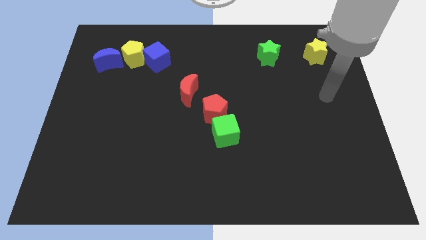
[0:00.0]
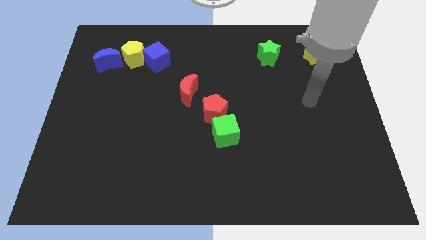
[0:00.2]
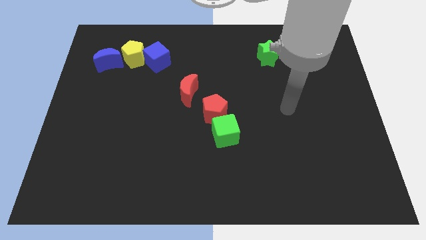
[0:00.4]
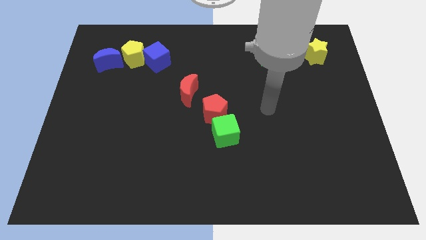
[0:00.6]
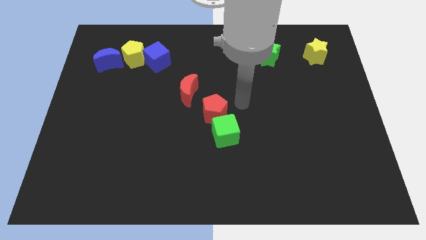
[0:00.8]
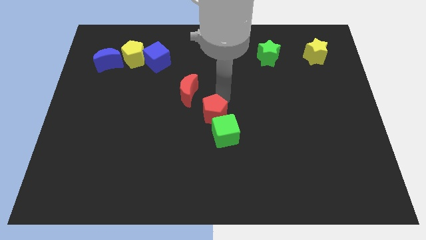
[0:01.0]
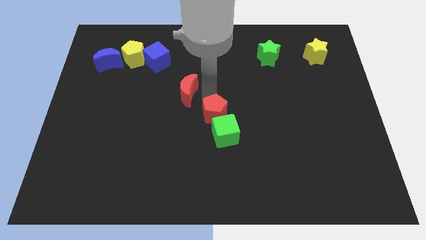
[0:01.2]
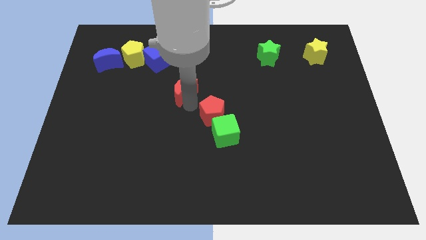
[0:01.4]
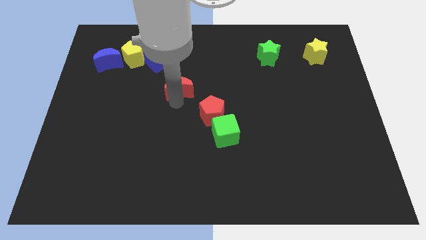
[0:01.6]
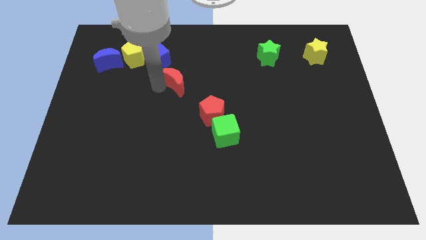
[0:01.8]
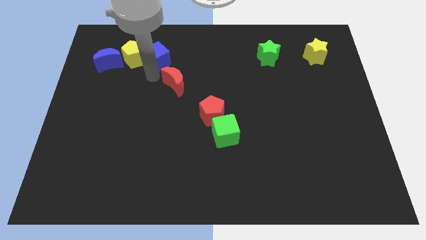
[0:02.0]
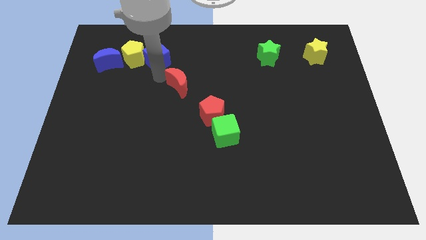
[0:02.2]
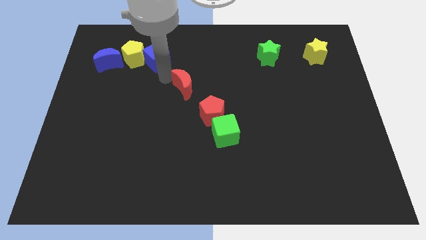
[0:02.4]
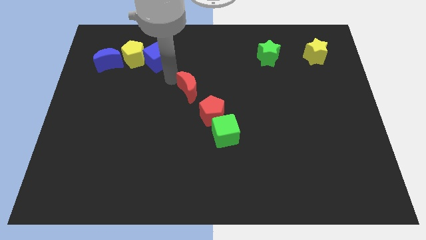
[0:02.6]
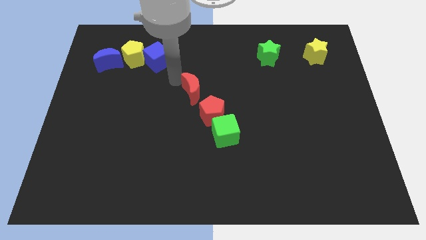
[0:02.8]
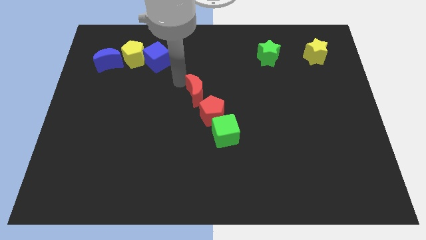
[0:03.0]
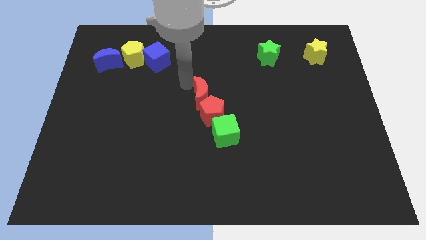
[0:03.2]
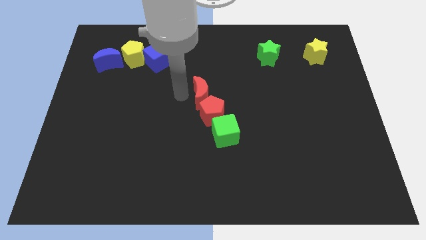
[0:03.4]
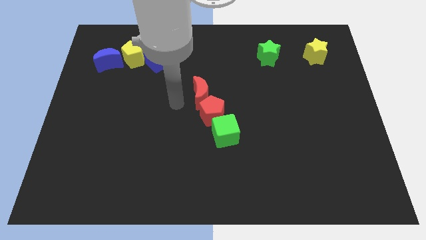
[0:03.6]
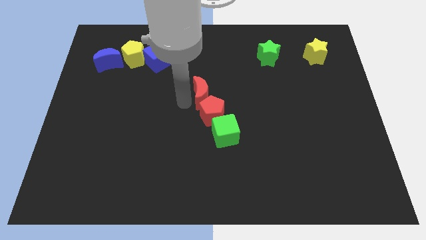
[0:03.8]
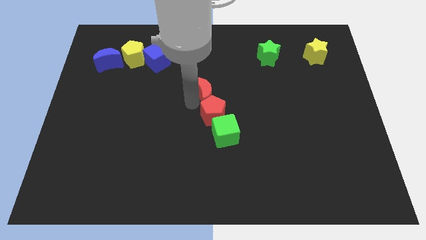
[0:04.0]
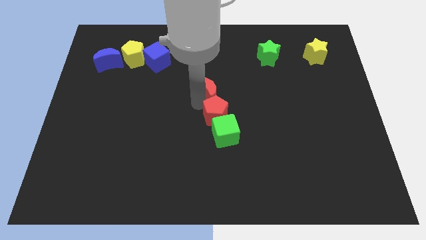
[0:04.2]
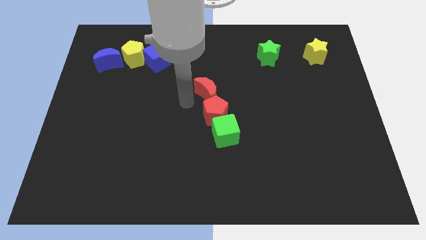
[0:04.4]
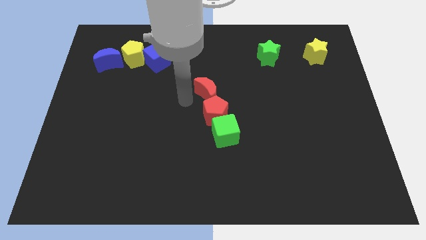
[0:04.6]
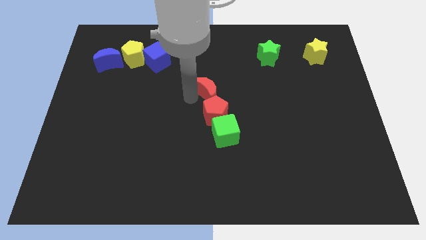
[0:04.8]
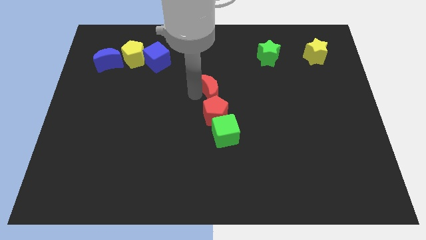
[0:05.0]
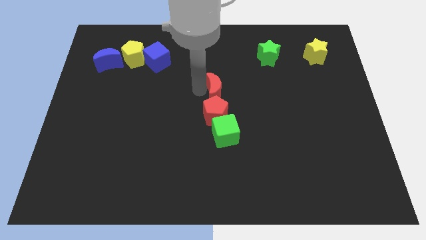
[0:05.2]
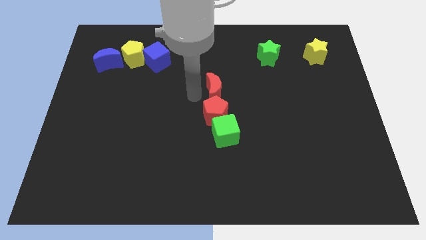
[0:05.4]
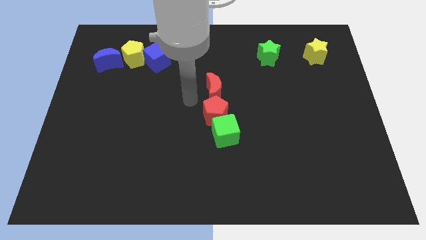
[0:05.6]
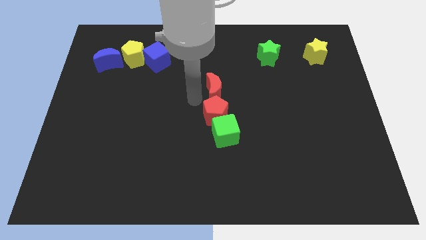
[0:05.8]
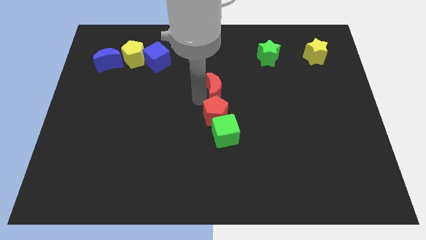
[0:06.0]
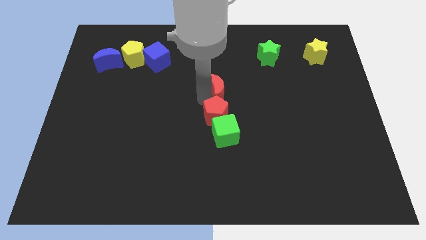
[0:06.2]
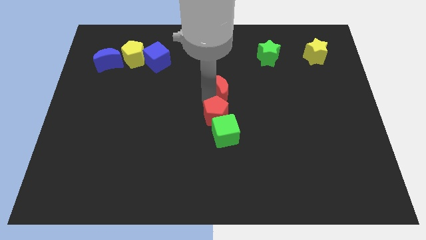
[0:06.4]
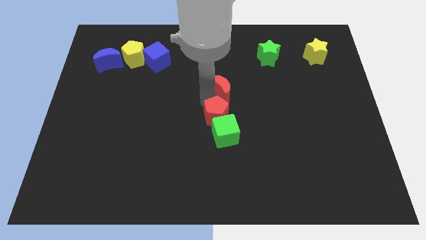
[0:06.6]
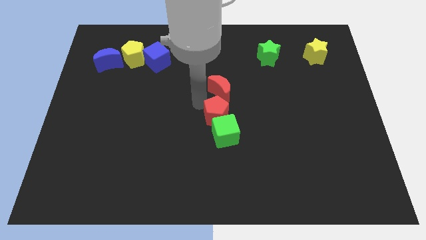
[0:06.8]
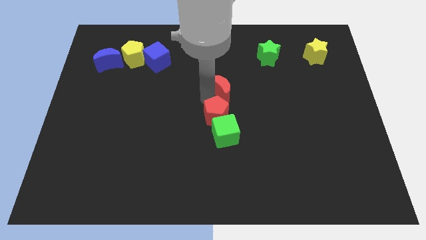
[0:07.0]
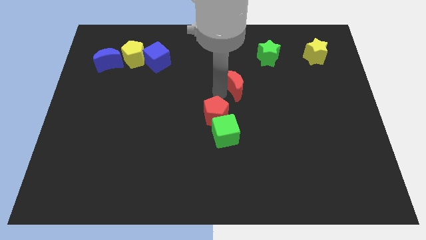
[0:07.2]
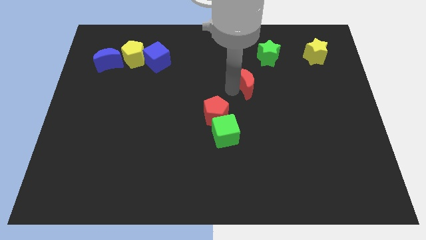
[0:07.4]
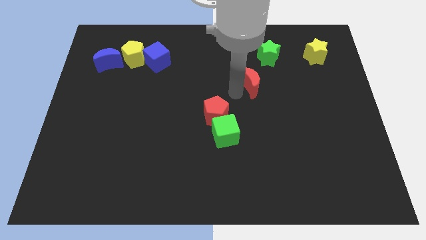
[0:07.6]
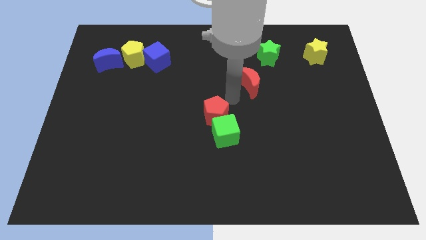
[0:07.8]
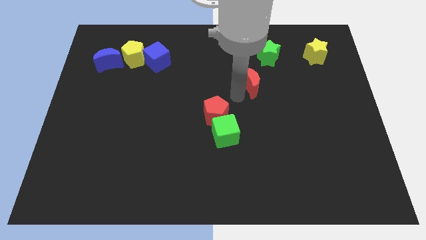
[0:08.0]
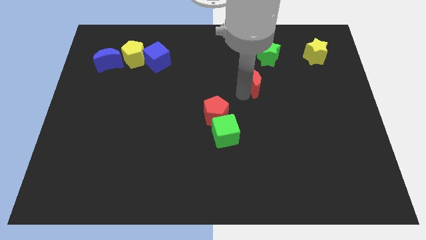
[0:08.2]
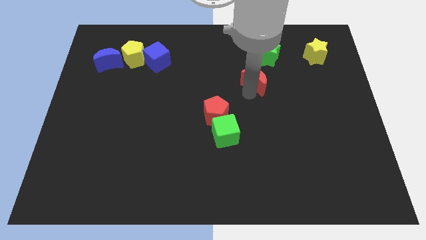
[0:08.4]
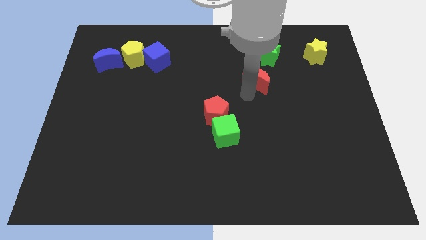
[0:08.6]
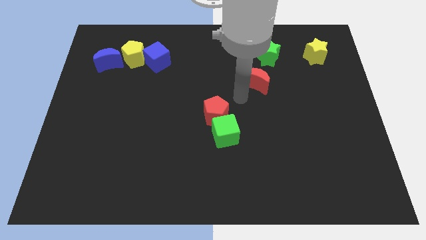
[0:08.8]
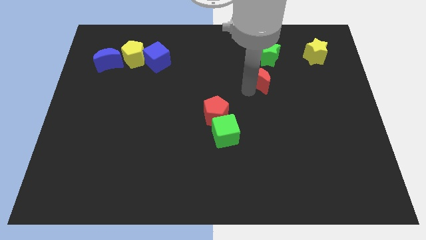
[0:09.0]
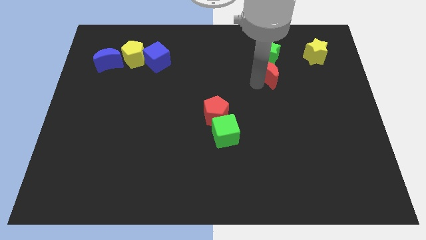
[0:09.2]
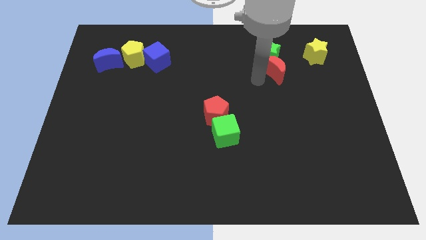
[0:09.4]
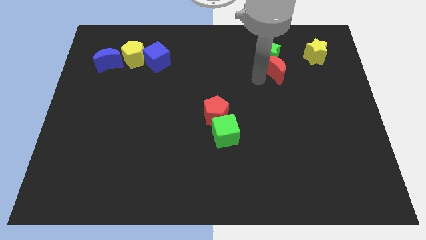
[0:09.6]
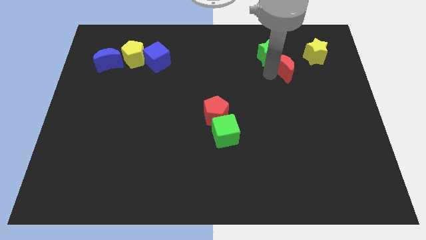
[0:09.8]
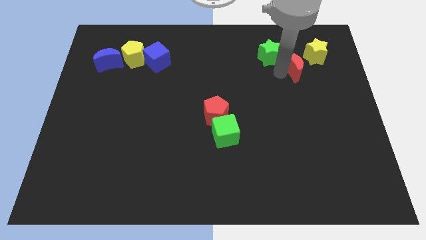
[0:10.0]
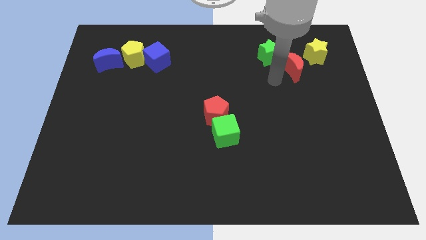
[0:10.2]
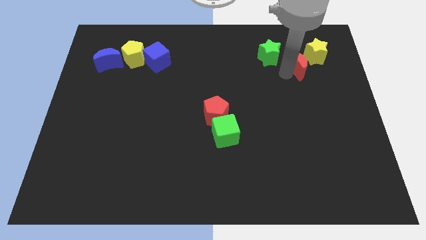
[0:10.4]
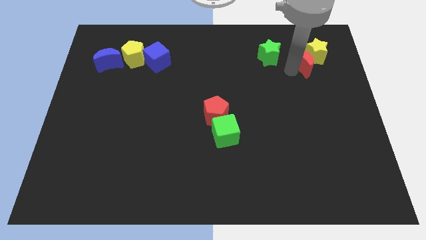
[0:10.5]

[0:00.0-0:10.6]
slide the red moon next to the yellow star

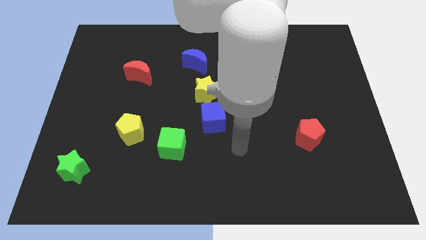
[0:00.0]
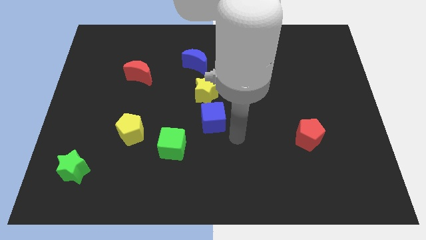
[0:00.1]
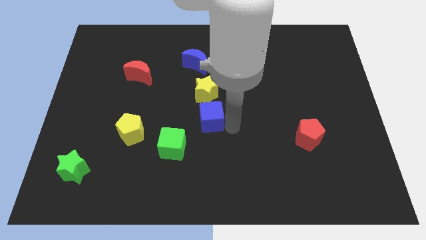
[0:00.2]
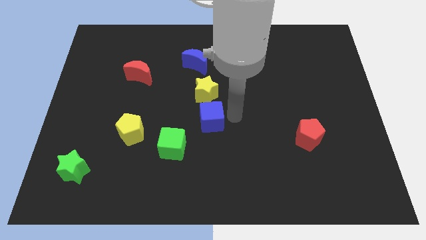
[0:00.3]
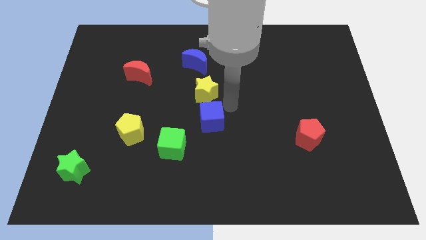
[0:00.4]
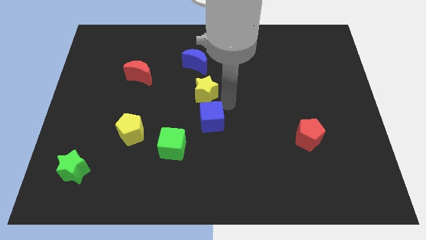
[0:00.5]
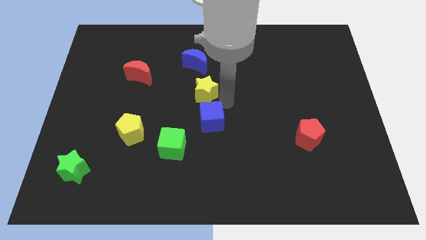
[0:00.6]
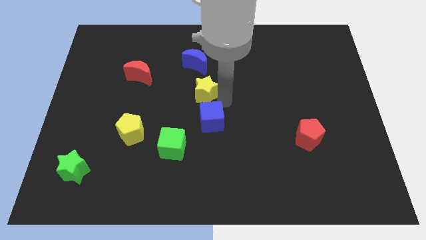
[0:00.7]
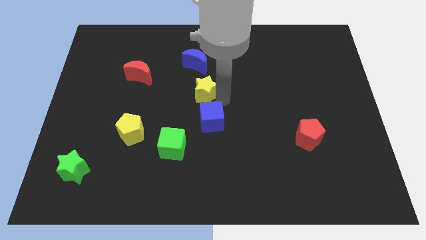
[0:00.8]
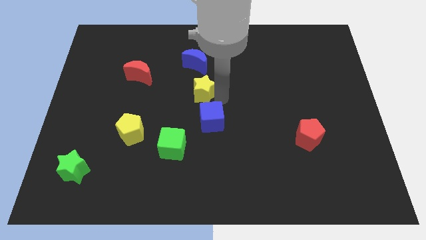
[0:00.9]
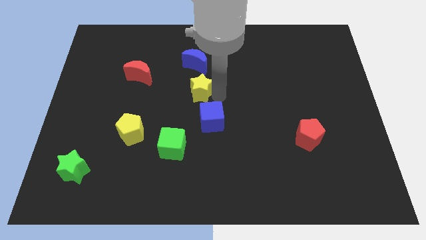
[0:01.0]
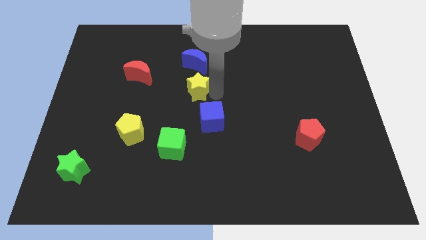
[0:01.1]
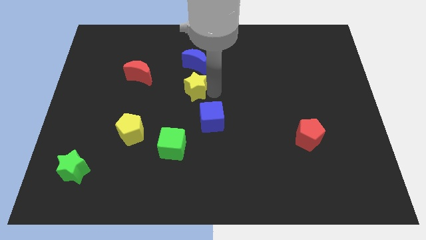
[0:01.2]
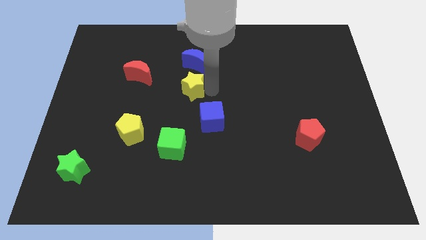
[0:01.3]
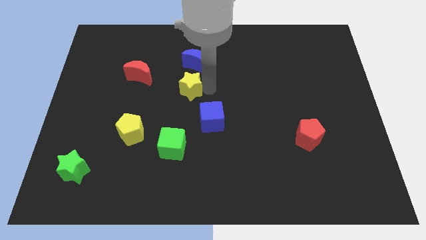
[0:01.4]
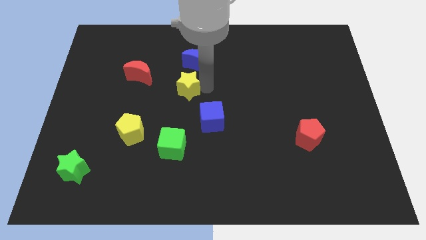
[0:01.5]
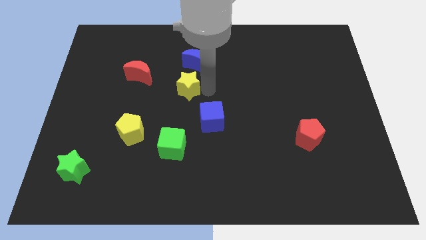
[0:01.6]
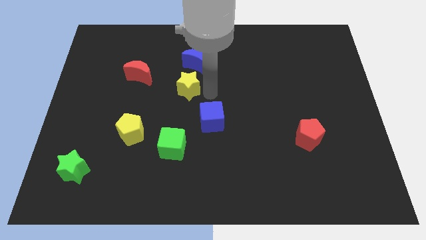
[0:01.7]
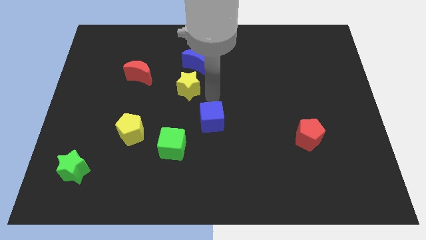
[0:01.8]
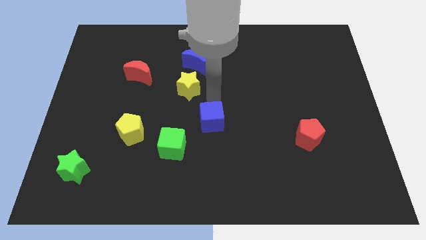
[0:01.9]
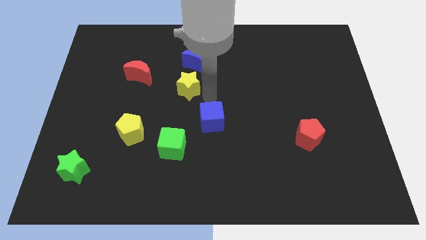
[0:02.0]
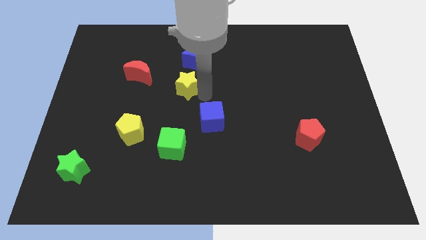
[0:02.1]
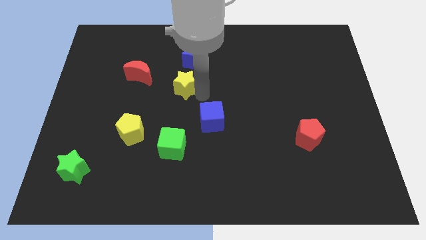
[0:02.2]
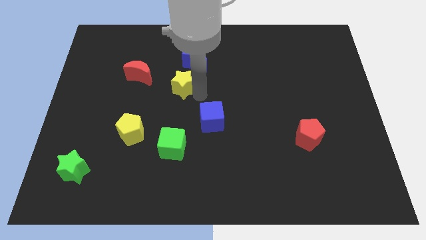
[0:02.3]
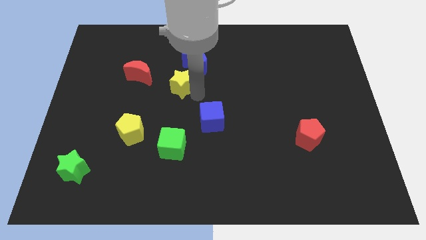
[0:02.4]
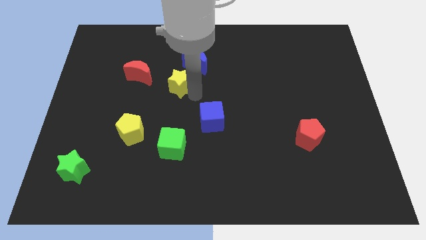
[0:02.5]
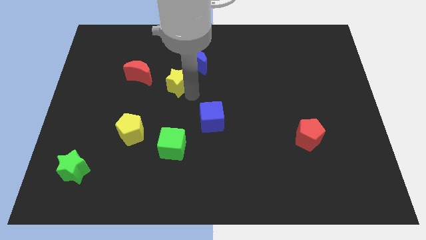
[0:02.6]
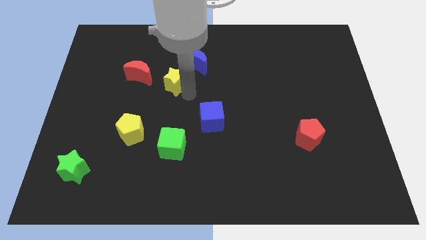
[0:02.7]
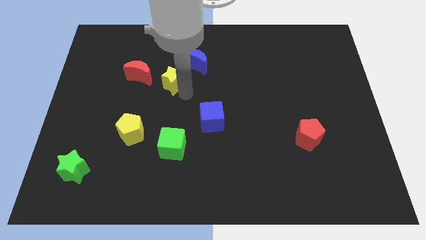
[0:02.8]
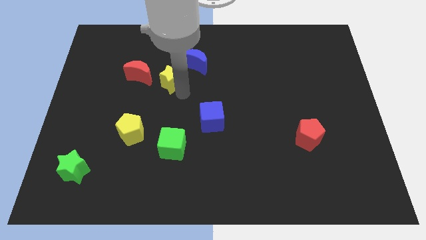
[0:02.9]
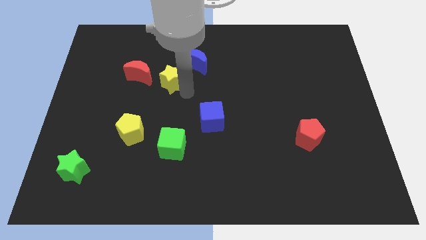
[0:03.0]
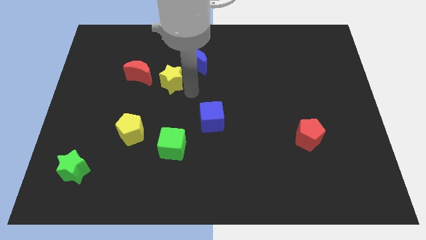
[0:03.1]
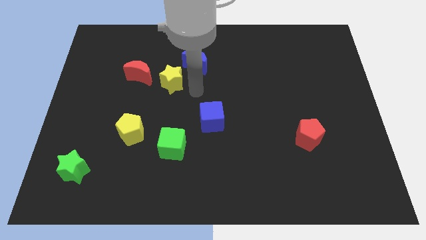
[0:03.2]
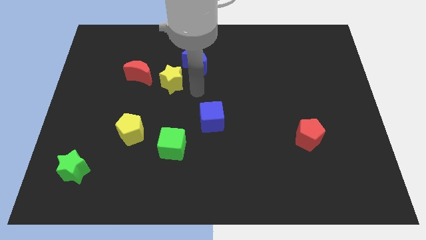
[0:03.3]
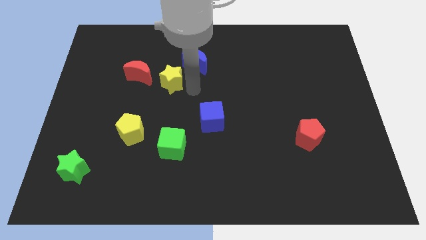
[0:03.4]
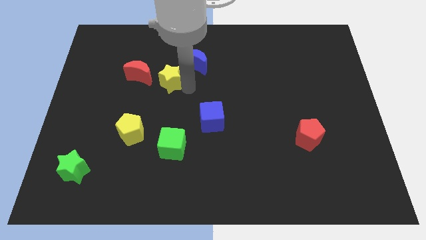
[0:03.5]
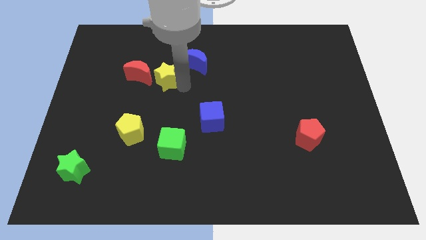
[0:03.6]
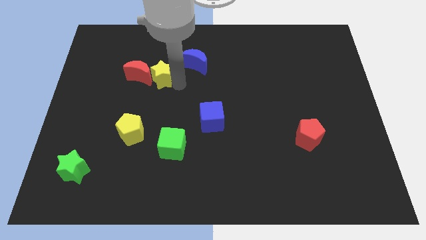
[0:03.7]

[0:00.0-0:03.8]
push the yellow star to the red moon
